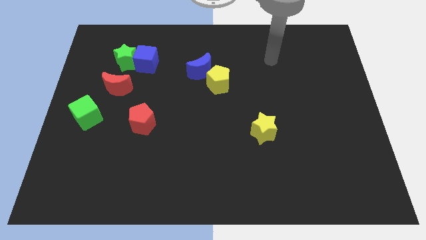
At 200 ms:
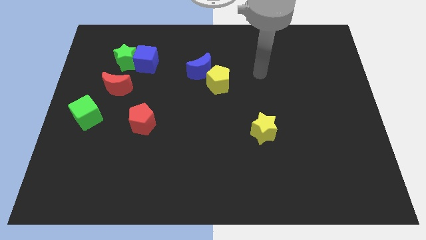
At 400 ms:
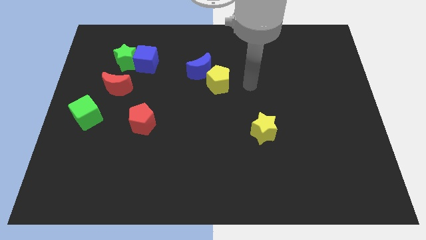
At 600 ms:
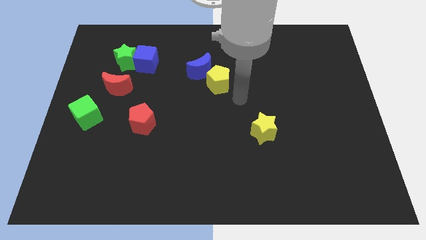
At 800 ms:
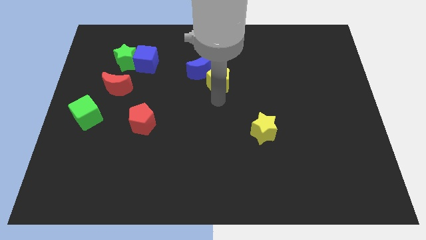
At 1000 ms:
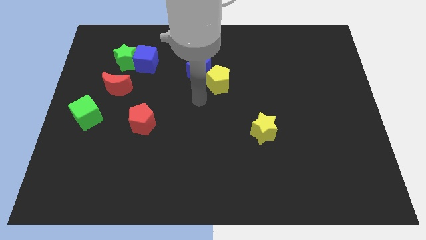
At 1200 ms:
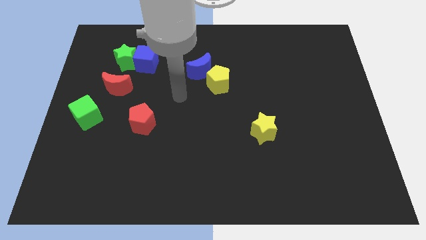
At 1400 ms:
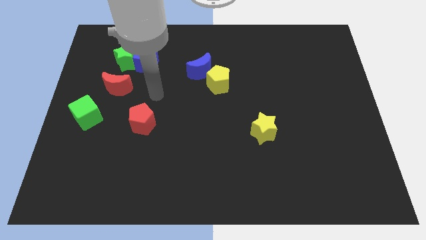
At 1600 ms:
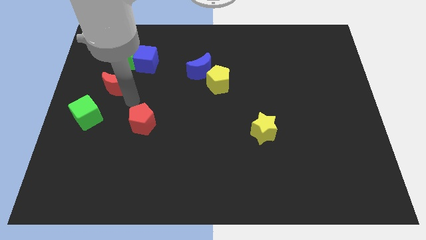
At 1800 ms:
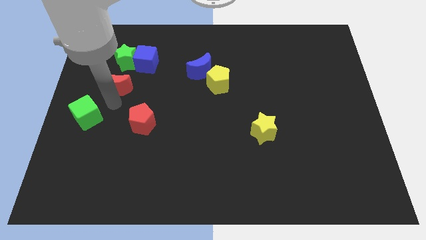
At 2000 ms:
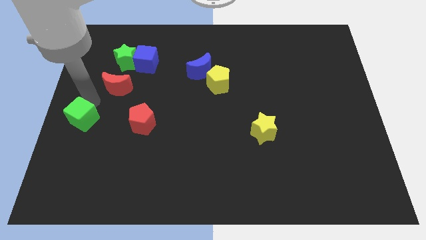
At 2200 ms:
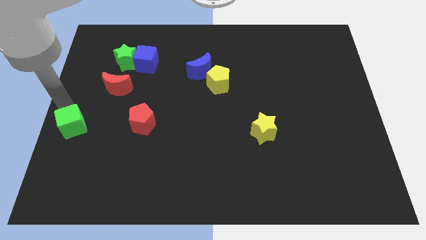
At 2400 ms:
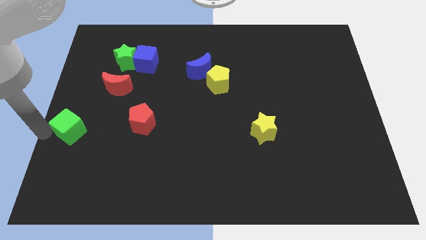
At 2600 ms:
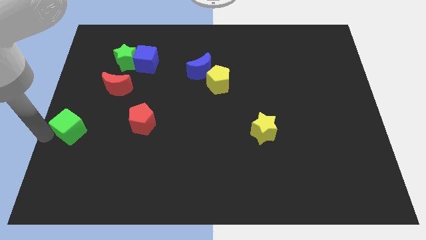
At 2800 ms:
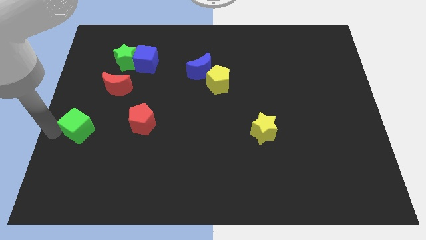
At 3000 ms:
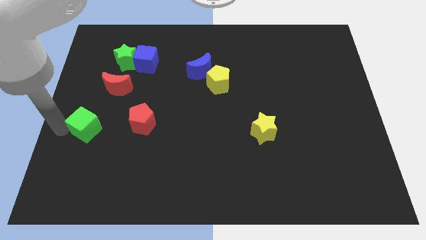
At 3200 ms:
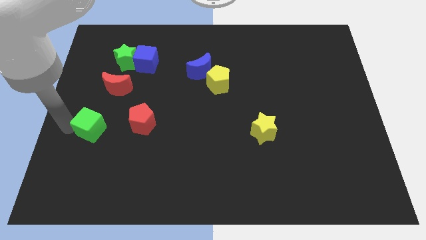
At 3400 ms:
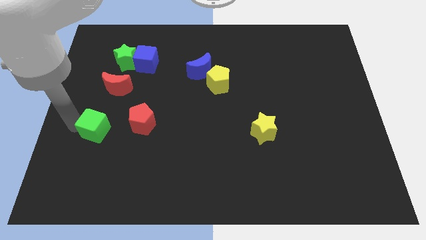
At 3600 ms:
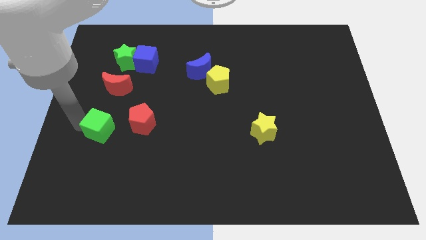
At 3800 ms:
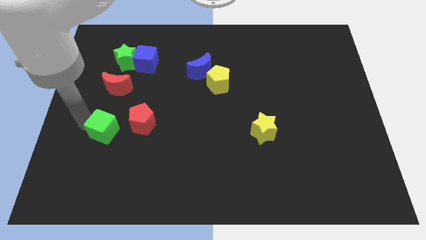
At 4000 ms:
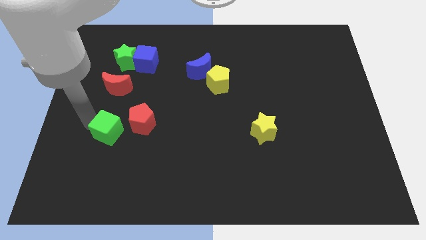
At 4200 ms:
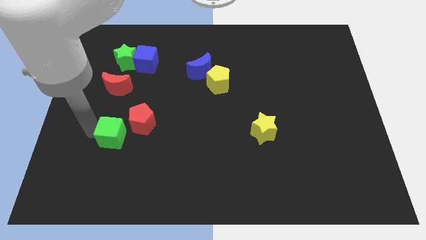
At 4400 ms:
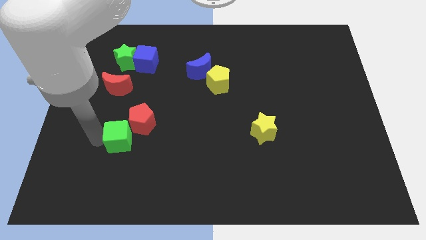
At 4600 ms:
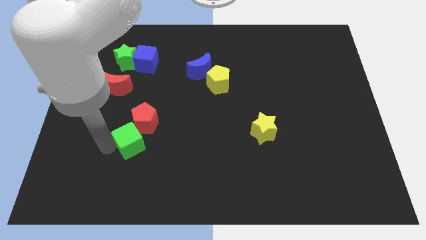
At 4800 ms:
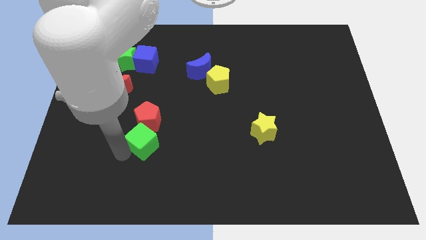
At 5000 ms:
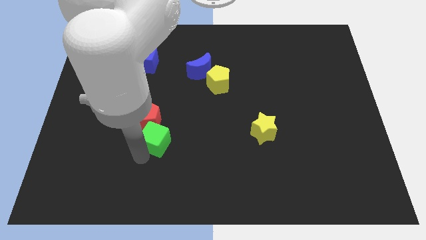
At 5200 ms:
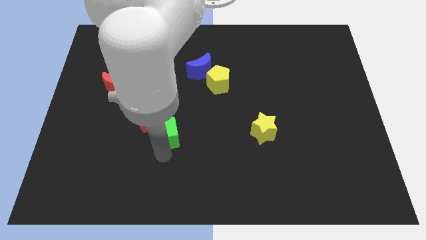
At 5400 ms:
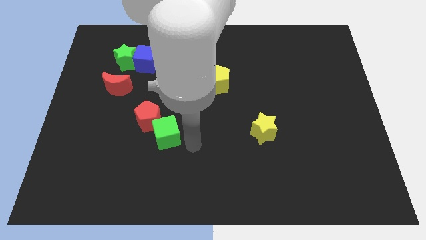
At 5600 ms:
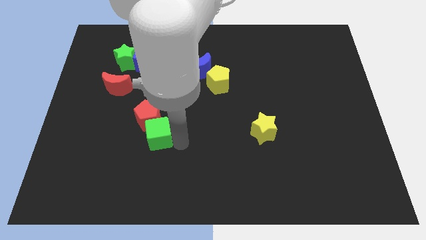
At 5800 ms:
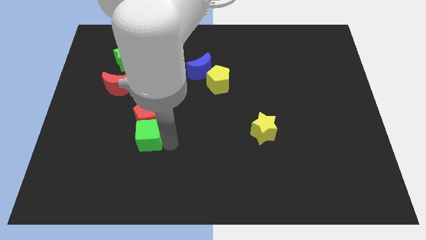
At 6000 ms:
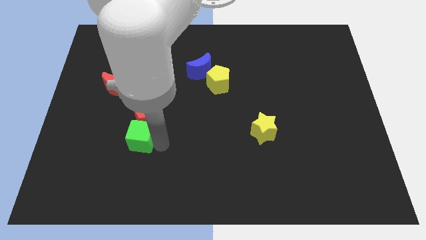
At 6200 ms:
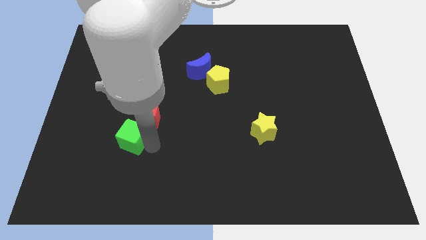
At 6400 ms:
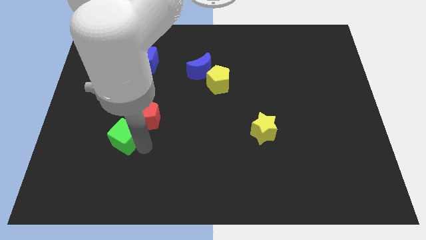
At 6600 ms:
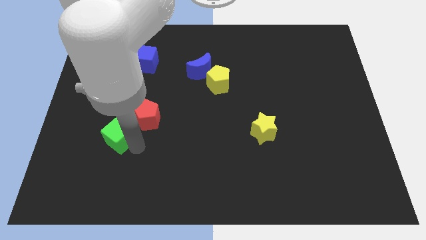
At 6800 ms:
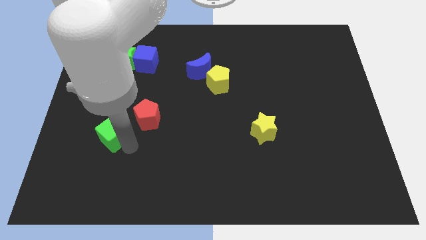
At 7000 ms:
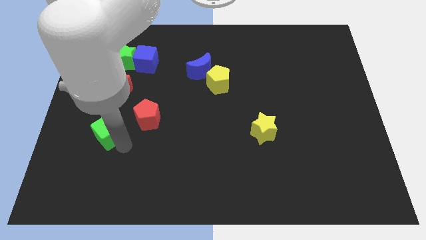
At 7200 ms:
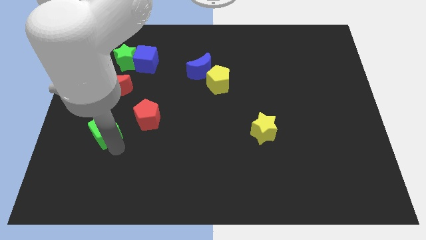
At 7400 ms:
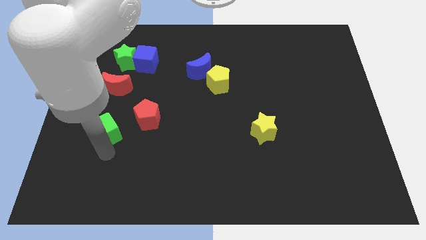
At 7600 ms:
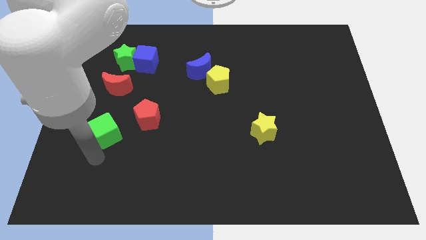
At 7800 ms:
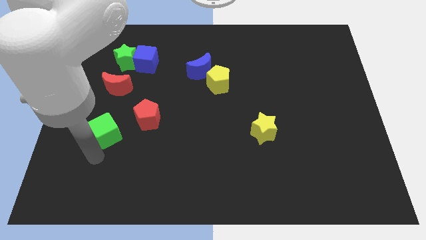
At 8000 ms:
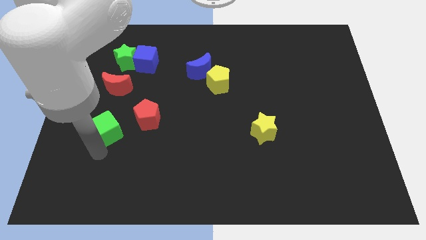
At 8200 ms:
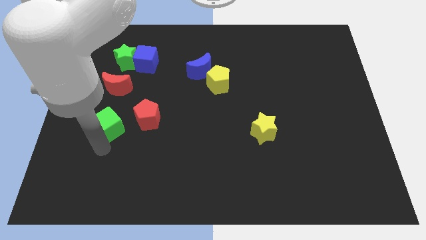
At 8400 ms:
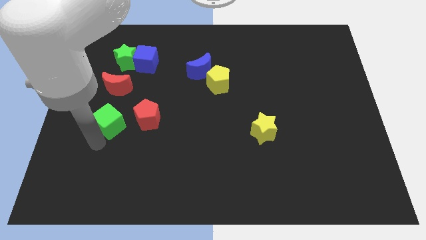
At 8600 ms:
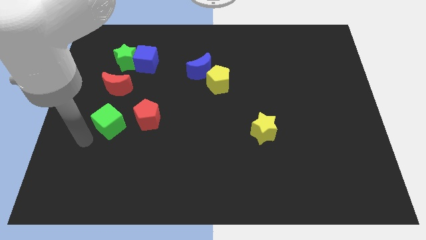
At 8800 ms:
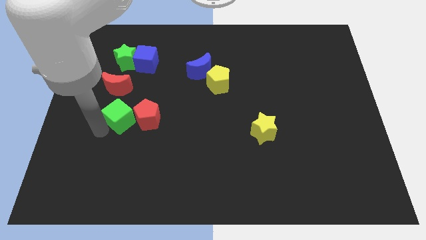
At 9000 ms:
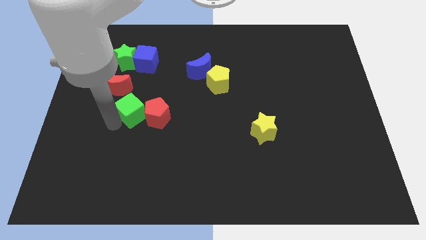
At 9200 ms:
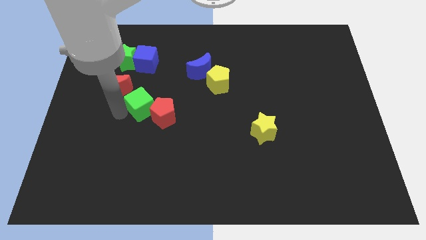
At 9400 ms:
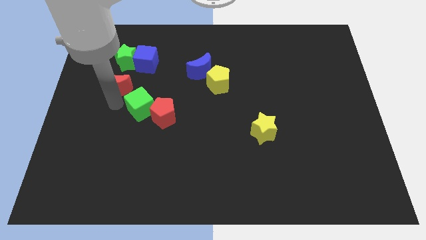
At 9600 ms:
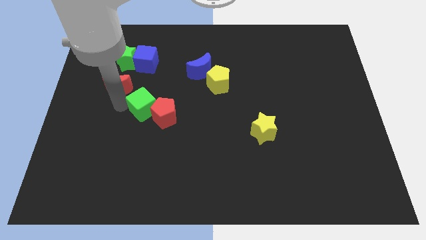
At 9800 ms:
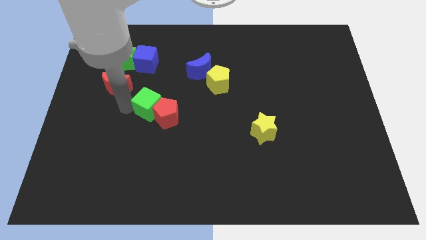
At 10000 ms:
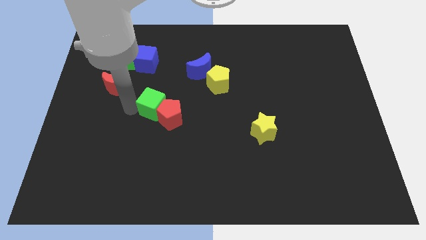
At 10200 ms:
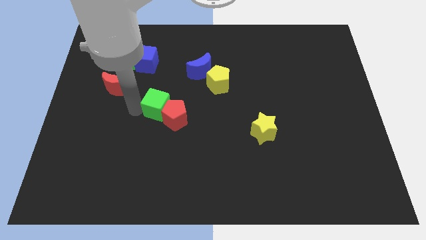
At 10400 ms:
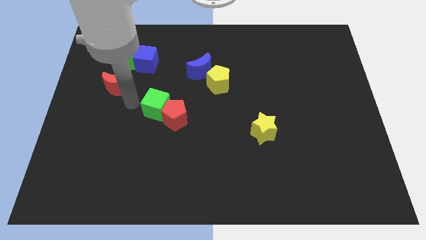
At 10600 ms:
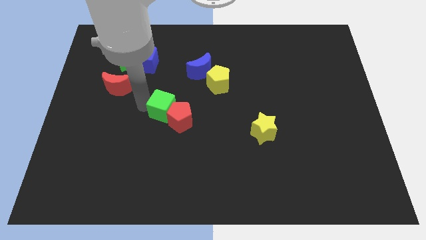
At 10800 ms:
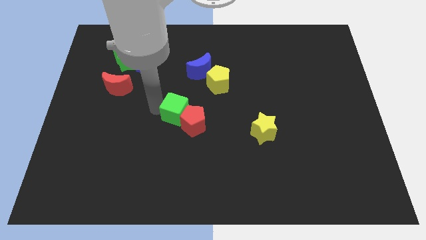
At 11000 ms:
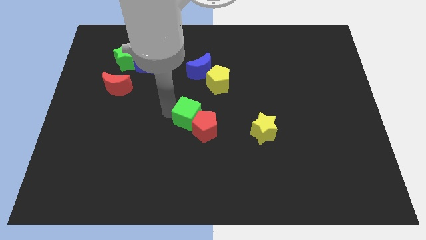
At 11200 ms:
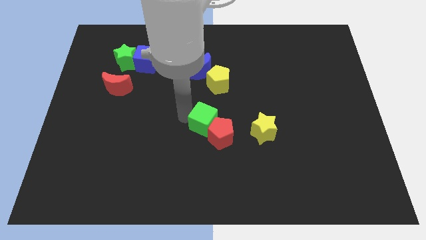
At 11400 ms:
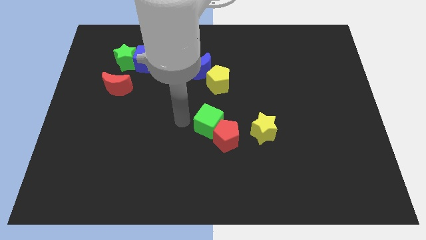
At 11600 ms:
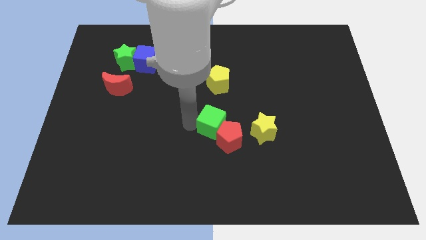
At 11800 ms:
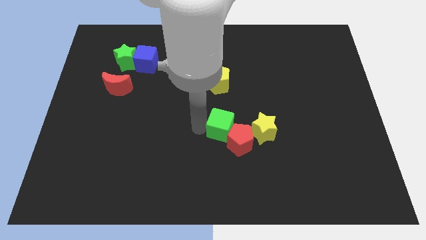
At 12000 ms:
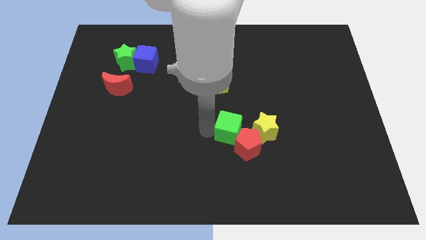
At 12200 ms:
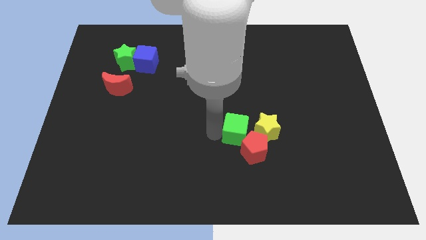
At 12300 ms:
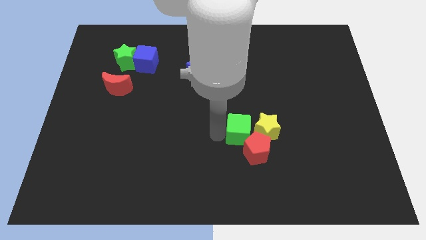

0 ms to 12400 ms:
put the green cube next to the yellow star

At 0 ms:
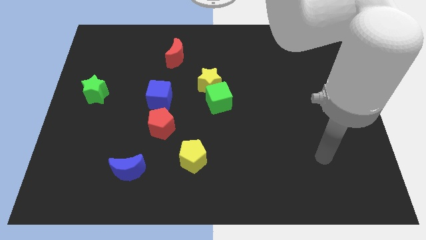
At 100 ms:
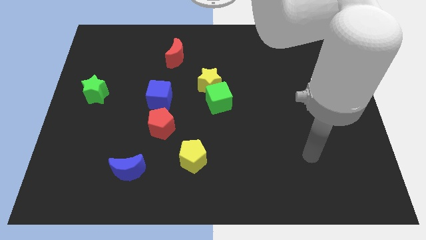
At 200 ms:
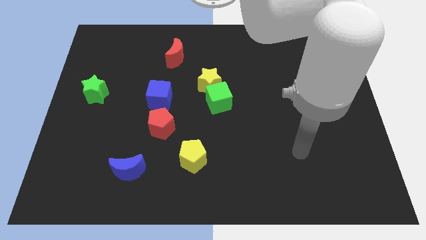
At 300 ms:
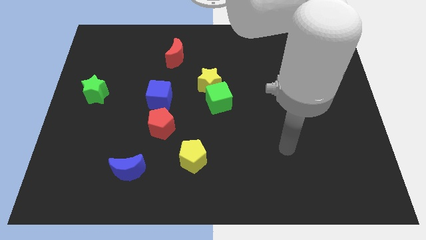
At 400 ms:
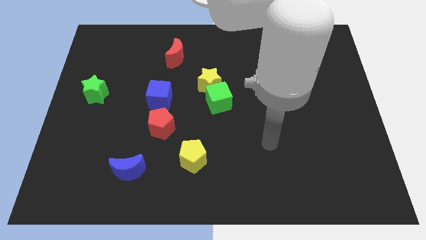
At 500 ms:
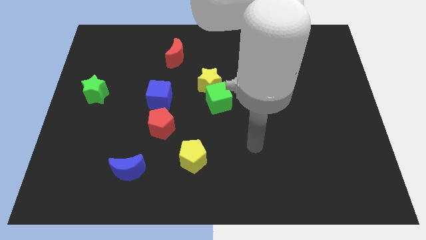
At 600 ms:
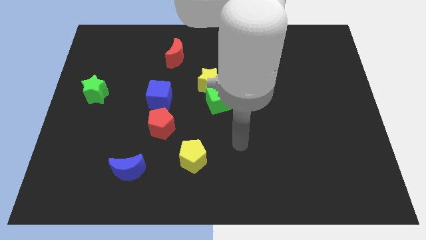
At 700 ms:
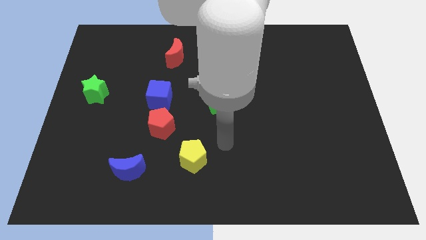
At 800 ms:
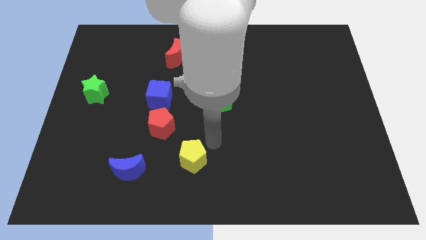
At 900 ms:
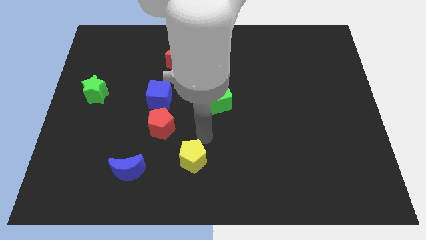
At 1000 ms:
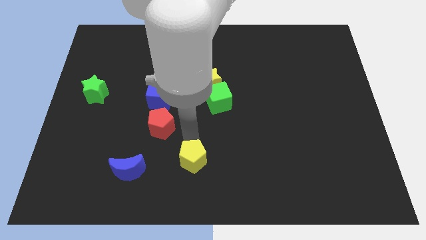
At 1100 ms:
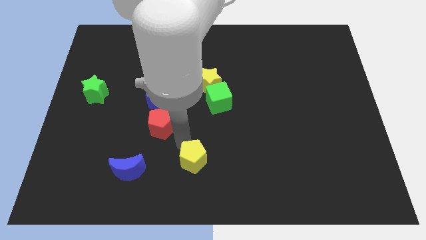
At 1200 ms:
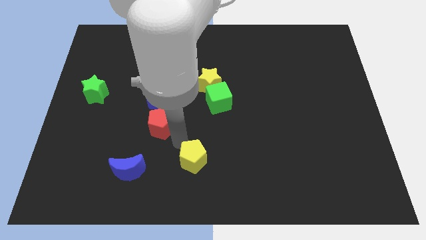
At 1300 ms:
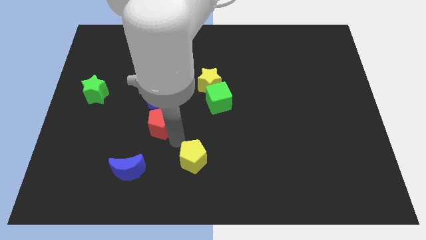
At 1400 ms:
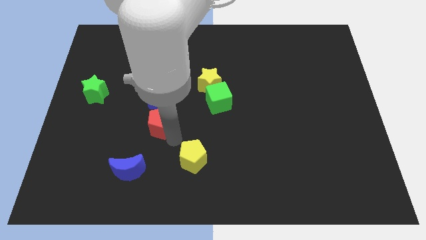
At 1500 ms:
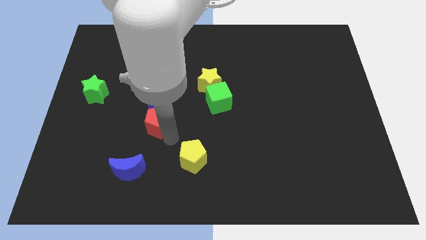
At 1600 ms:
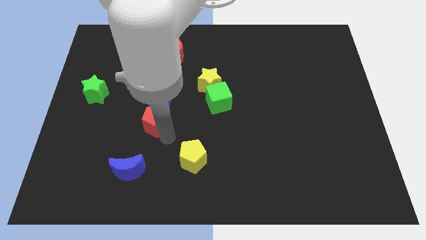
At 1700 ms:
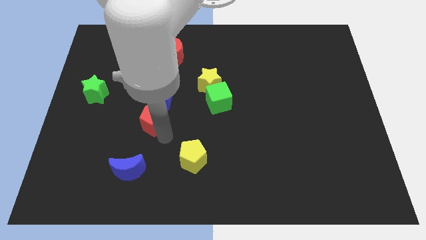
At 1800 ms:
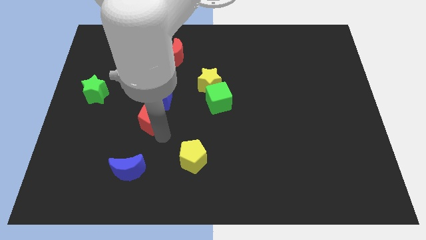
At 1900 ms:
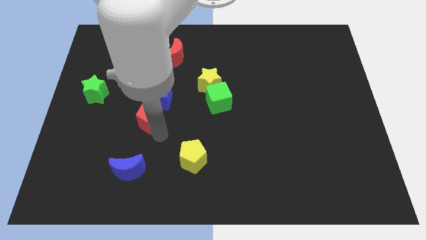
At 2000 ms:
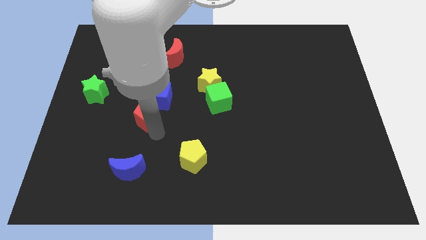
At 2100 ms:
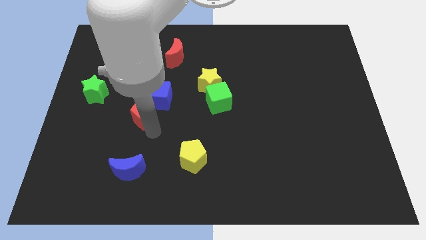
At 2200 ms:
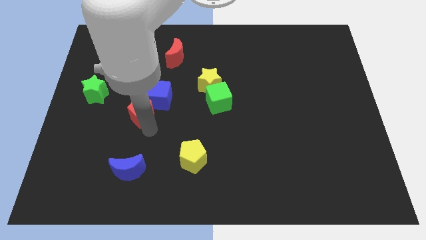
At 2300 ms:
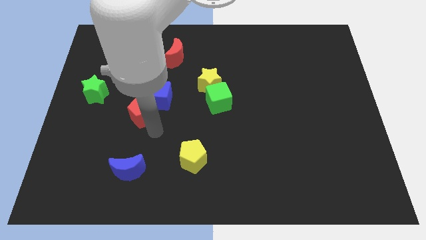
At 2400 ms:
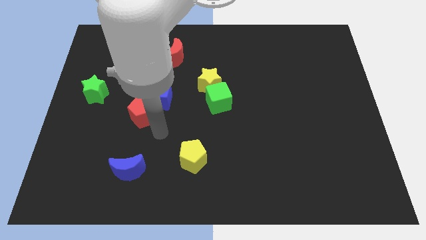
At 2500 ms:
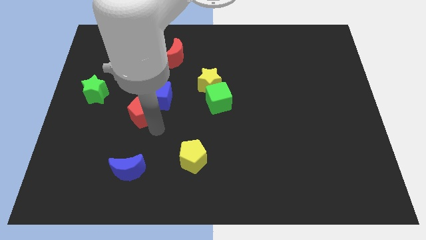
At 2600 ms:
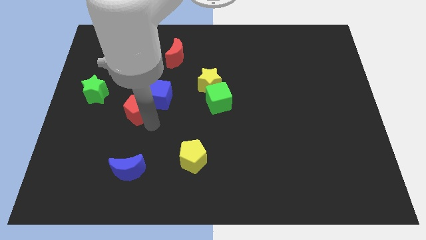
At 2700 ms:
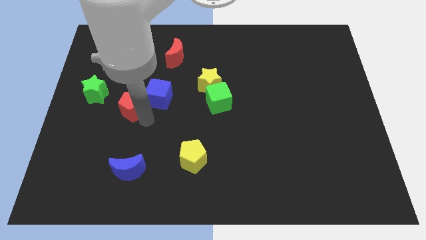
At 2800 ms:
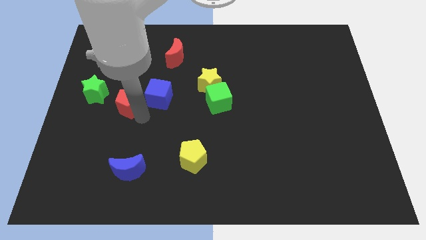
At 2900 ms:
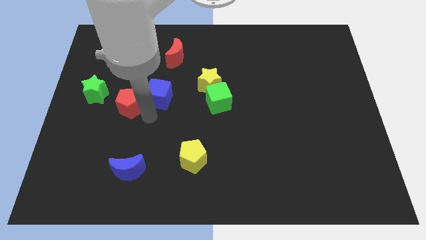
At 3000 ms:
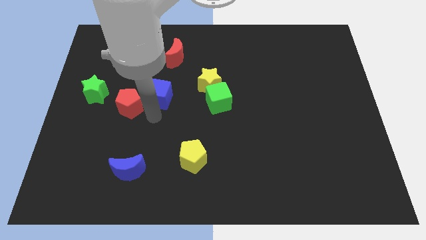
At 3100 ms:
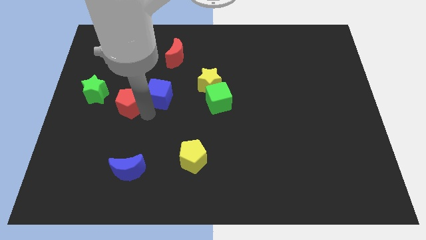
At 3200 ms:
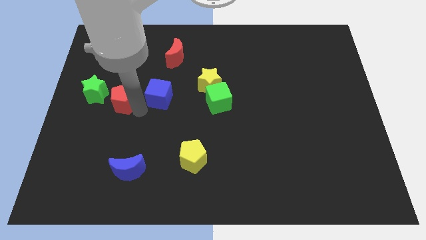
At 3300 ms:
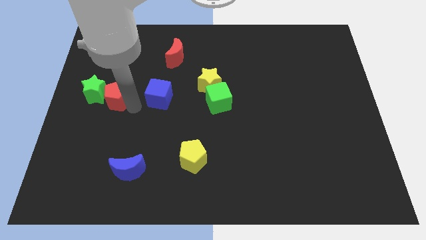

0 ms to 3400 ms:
slide the red pentagon next to the green star
